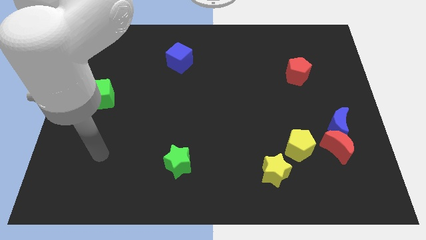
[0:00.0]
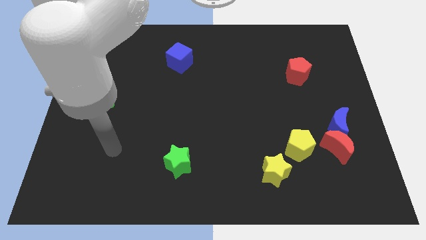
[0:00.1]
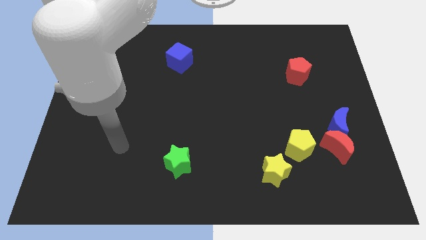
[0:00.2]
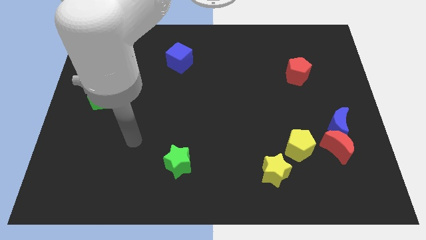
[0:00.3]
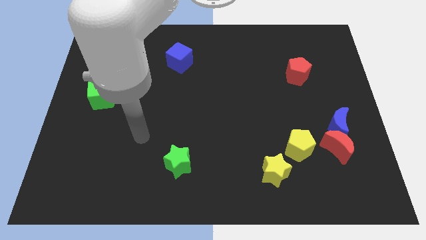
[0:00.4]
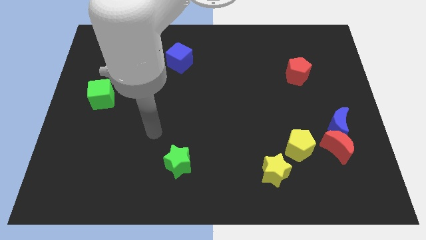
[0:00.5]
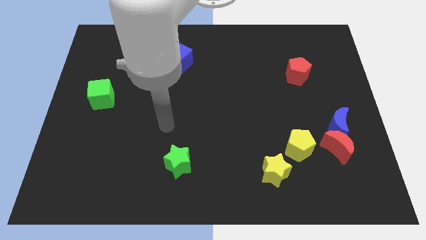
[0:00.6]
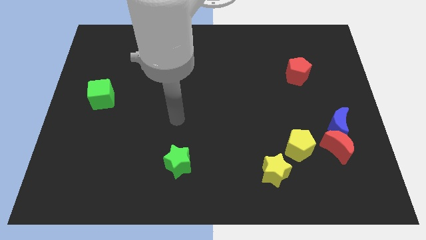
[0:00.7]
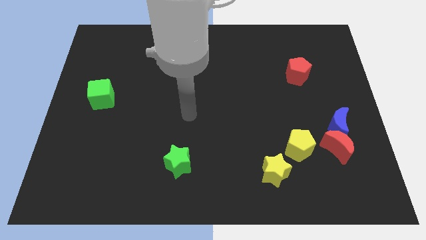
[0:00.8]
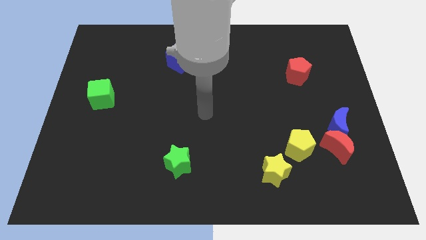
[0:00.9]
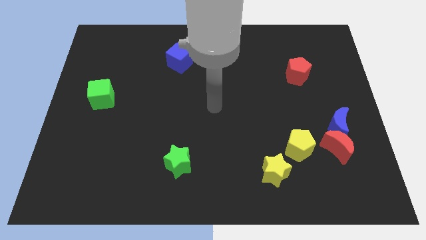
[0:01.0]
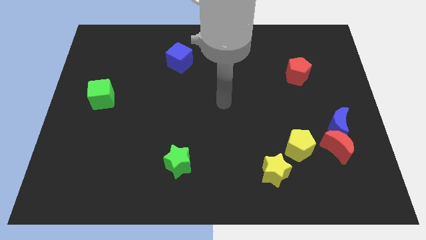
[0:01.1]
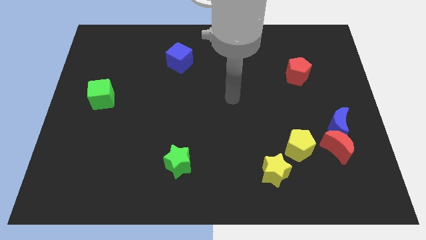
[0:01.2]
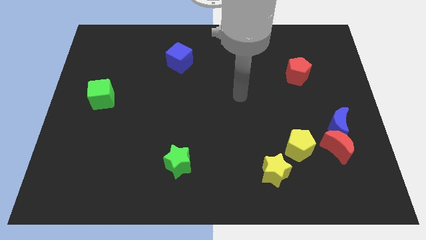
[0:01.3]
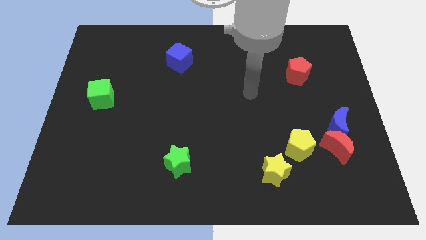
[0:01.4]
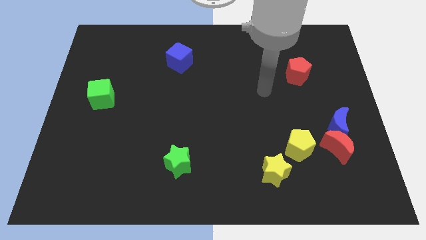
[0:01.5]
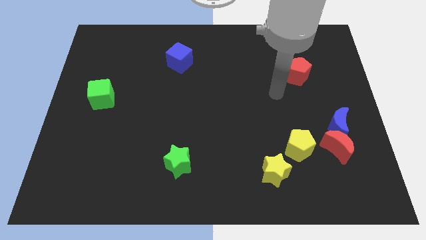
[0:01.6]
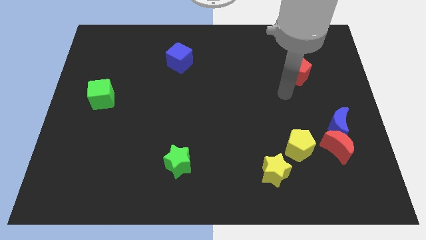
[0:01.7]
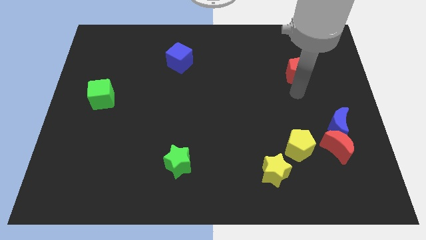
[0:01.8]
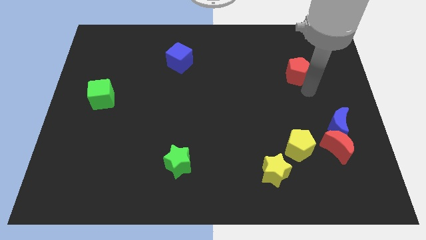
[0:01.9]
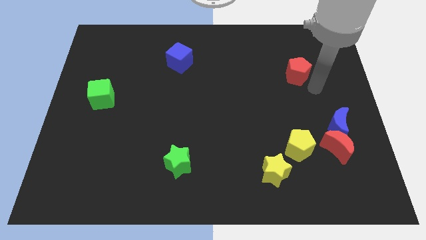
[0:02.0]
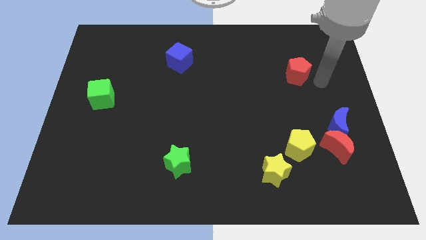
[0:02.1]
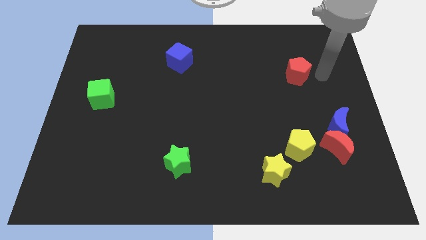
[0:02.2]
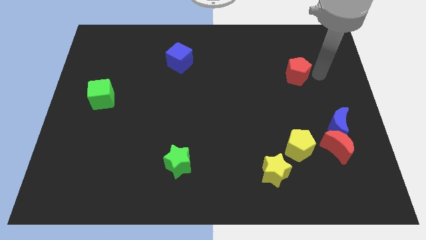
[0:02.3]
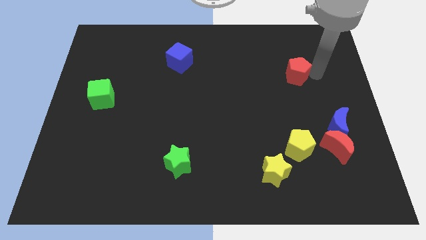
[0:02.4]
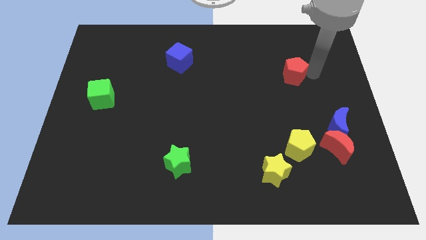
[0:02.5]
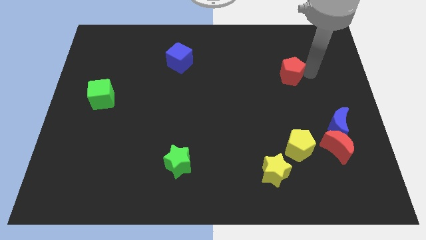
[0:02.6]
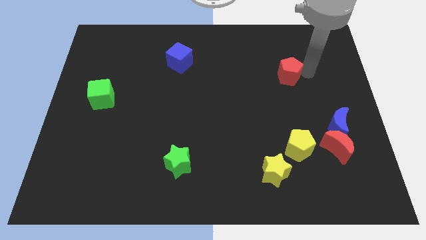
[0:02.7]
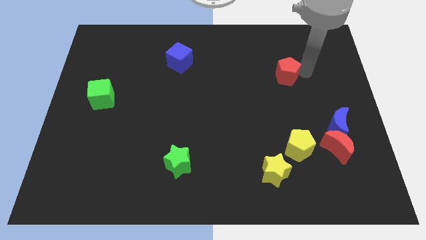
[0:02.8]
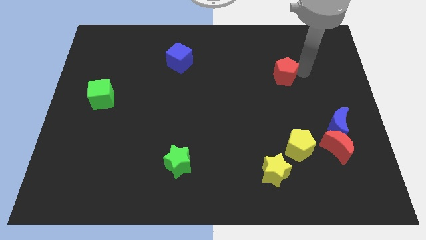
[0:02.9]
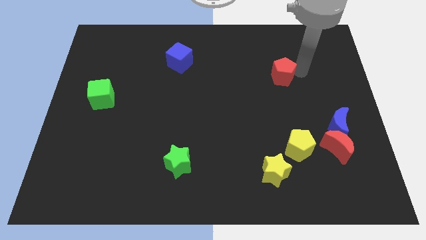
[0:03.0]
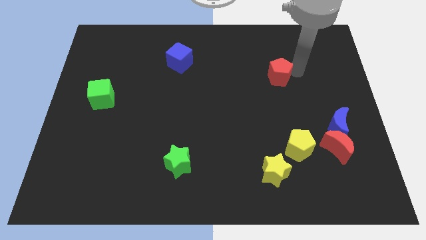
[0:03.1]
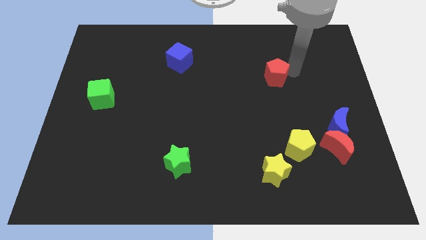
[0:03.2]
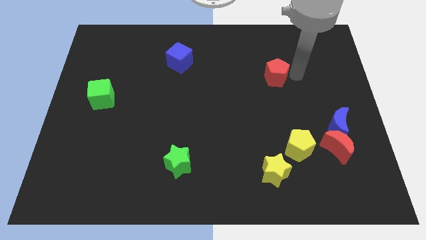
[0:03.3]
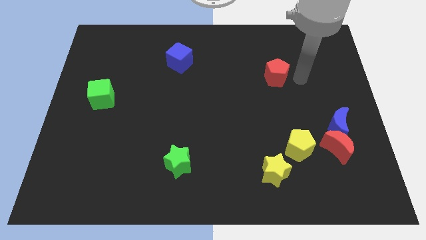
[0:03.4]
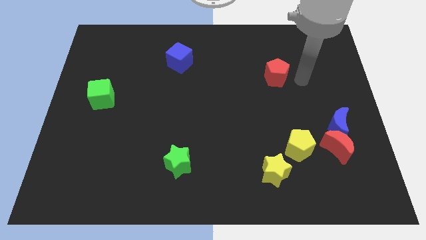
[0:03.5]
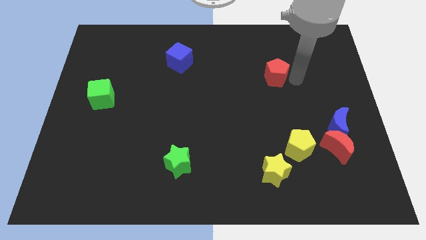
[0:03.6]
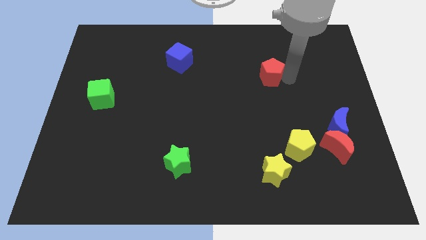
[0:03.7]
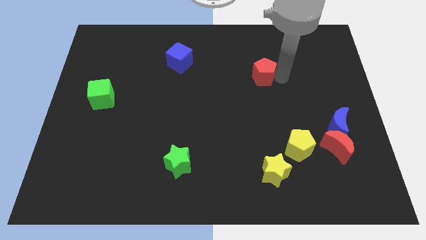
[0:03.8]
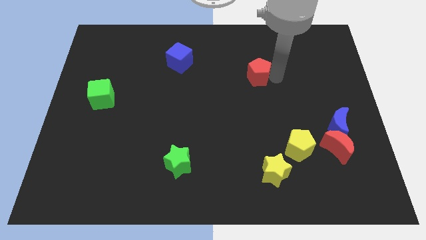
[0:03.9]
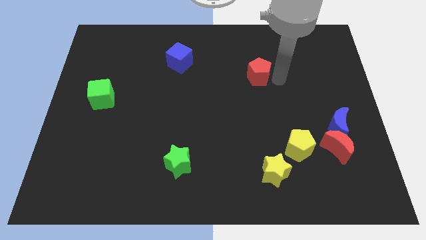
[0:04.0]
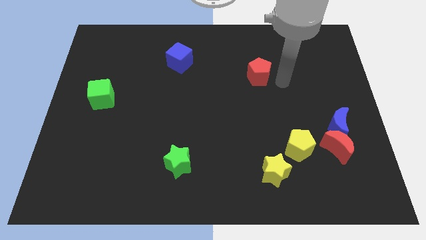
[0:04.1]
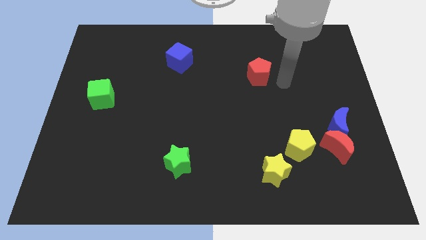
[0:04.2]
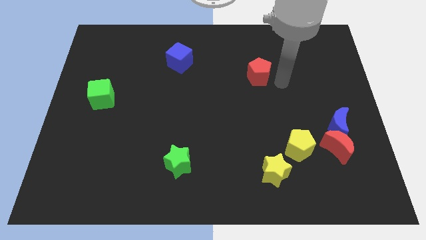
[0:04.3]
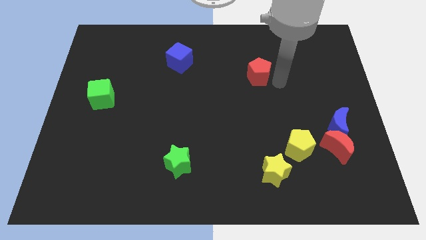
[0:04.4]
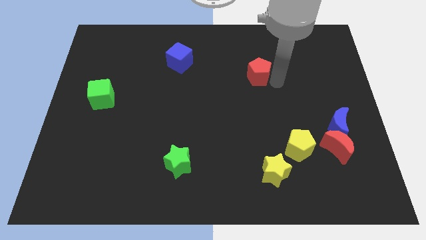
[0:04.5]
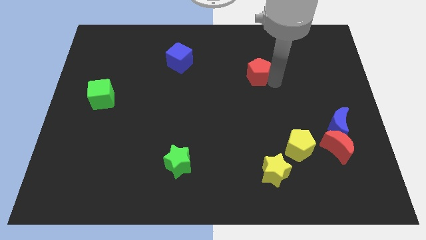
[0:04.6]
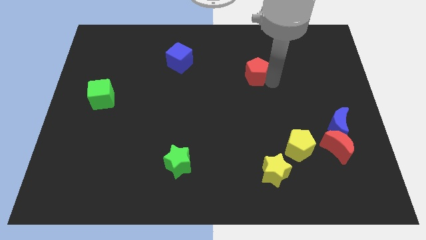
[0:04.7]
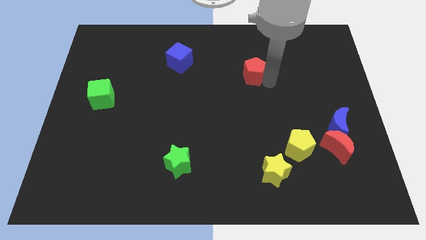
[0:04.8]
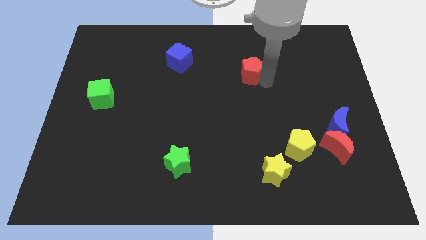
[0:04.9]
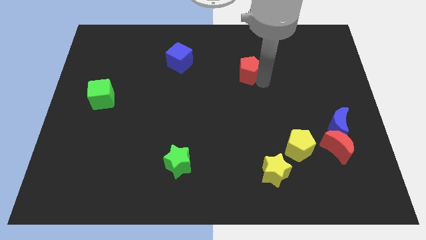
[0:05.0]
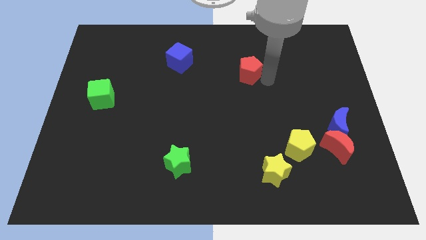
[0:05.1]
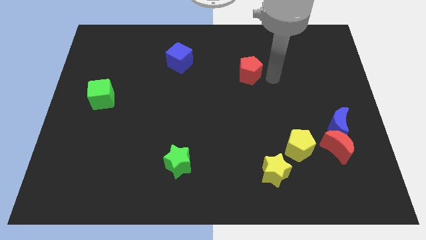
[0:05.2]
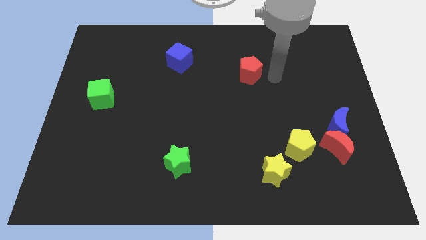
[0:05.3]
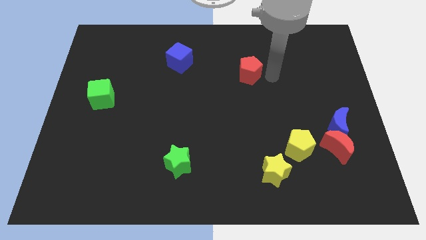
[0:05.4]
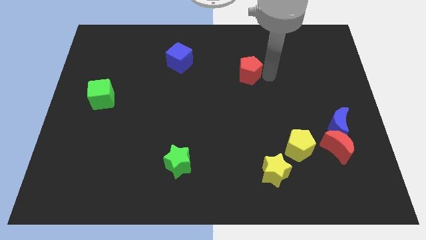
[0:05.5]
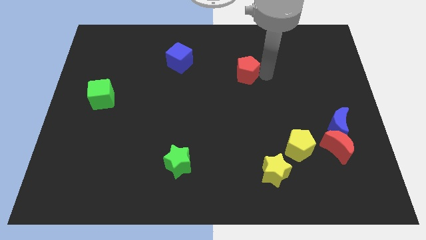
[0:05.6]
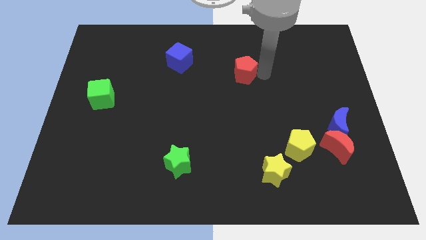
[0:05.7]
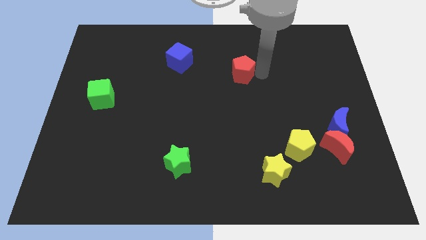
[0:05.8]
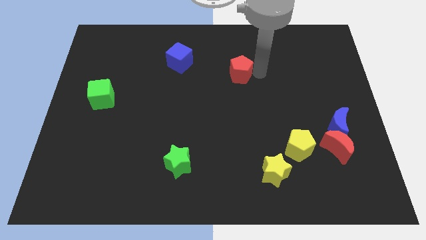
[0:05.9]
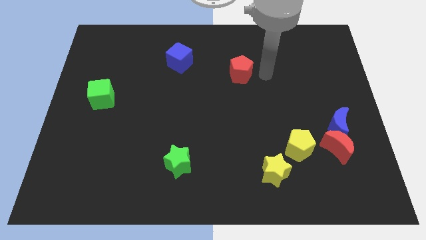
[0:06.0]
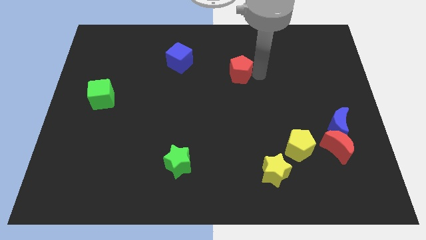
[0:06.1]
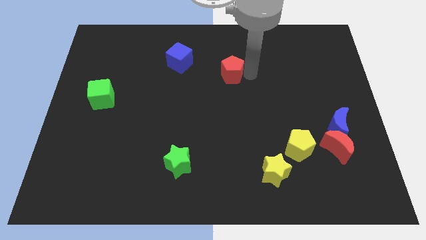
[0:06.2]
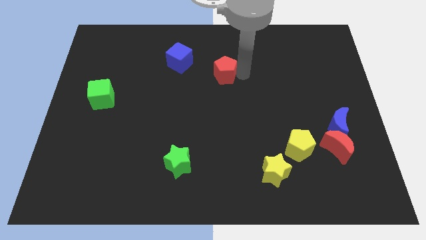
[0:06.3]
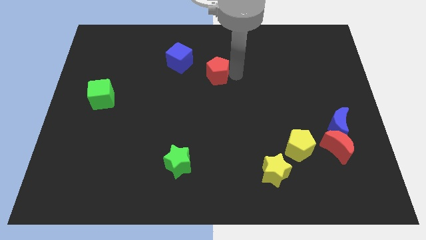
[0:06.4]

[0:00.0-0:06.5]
push the red pentagon to the left

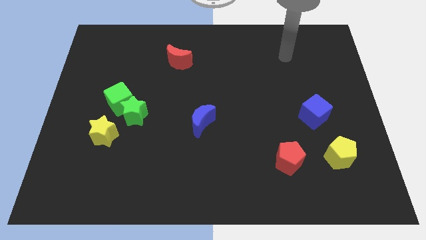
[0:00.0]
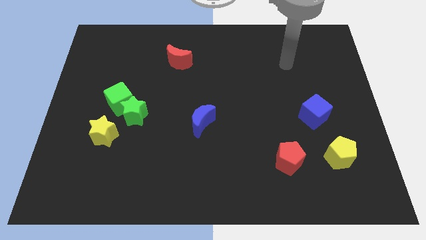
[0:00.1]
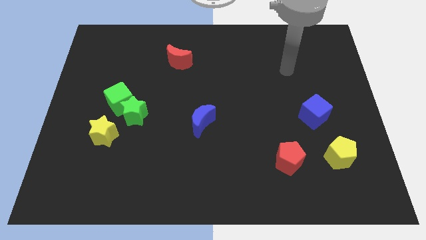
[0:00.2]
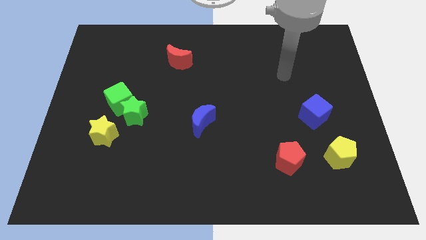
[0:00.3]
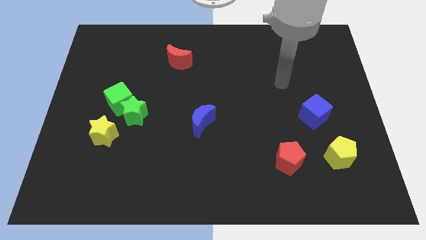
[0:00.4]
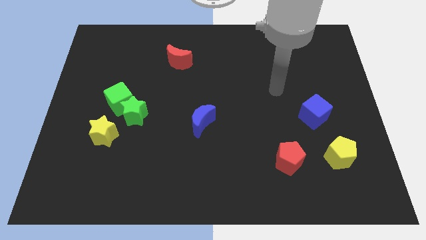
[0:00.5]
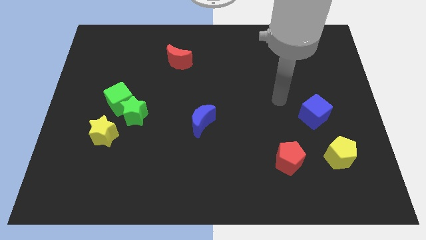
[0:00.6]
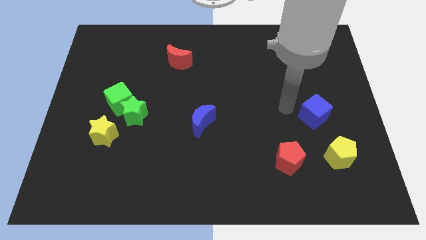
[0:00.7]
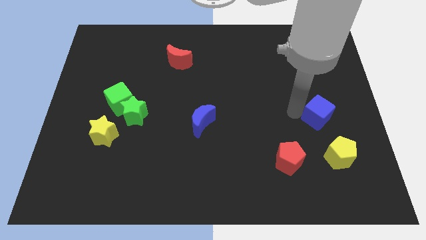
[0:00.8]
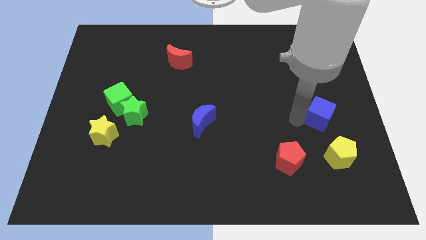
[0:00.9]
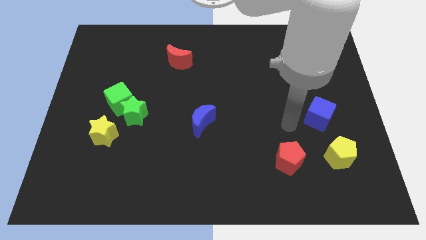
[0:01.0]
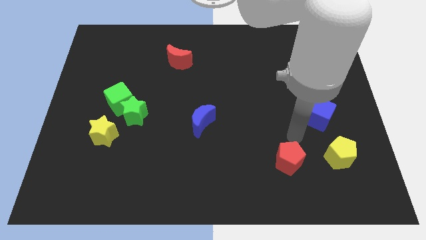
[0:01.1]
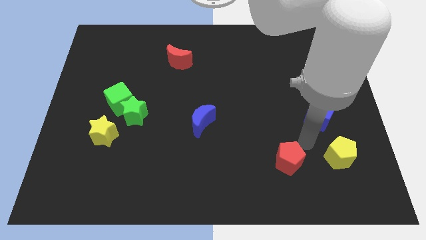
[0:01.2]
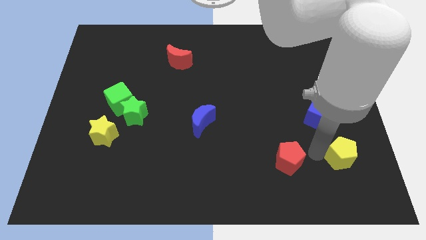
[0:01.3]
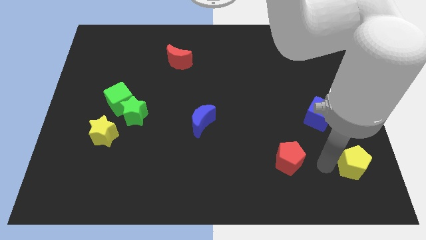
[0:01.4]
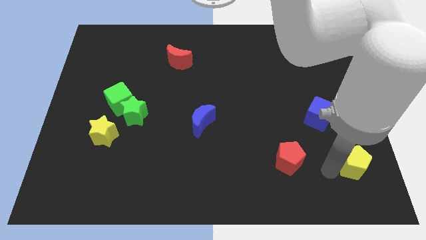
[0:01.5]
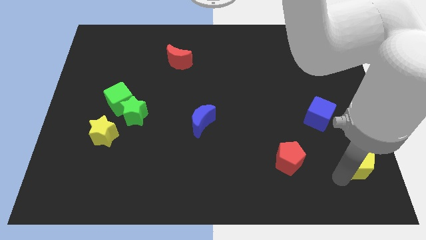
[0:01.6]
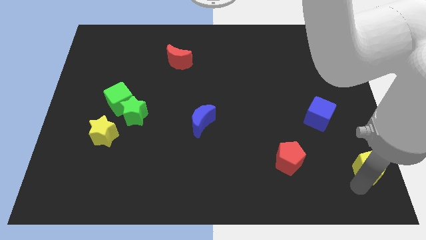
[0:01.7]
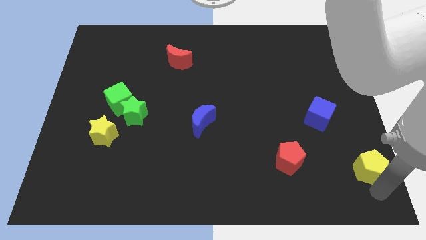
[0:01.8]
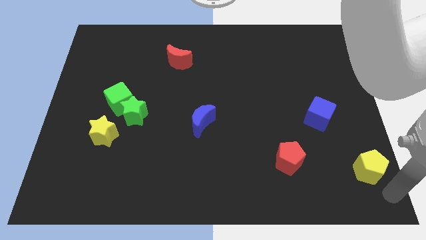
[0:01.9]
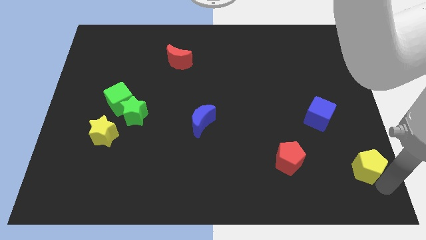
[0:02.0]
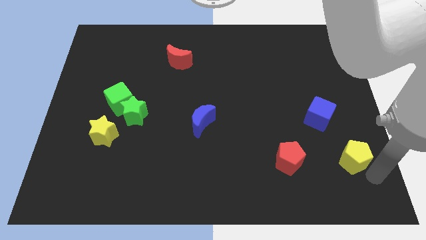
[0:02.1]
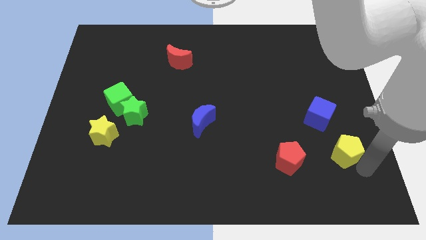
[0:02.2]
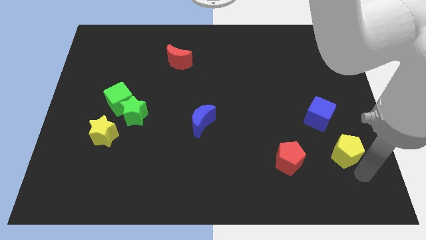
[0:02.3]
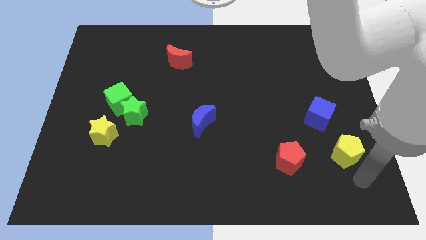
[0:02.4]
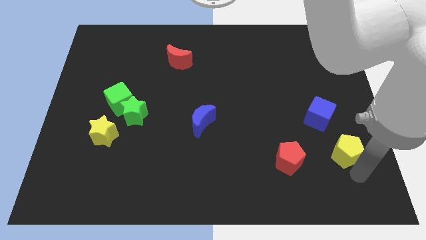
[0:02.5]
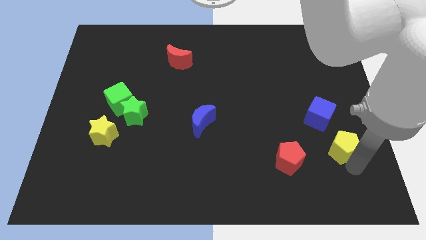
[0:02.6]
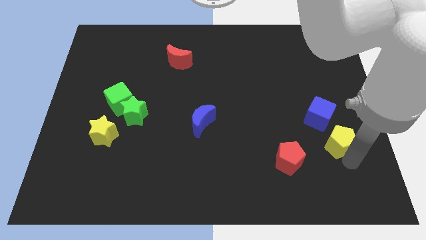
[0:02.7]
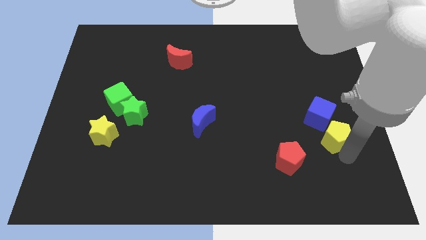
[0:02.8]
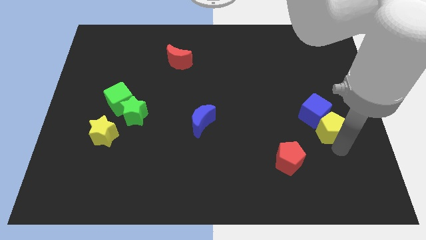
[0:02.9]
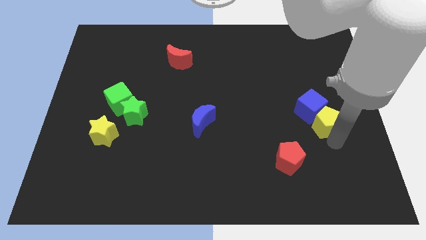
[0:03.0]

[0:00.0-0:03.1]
slightly move the yellow pentagon upwards
